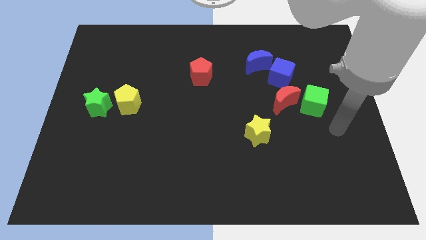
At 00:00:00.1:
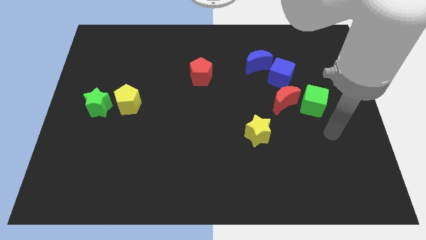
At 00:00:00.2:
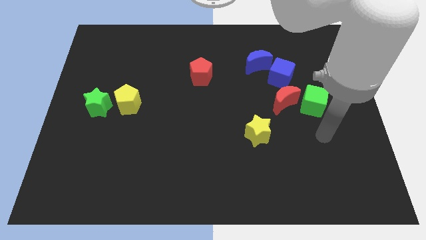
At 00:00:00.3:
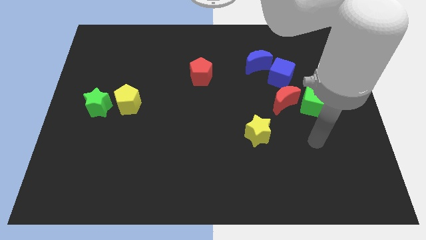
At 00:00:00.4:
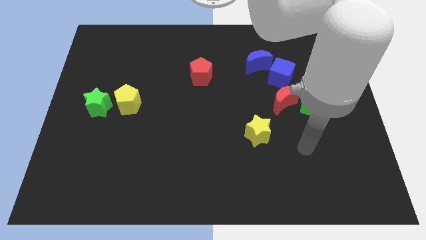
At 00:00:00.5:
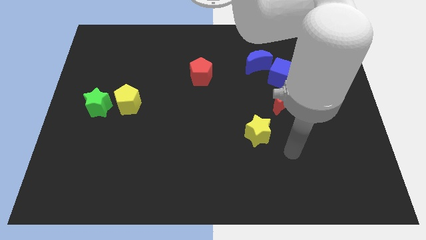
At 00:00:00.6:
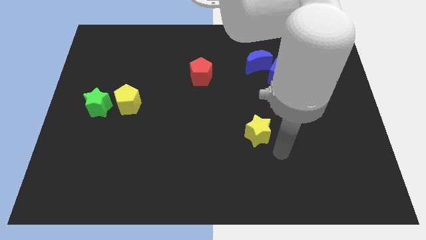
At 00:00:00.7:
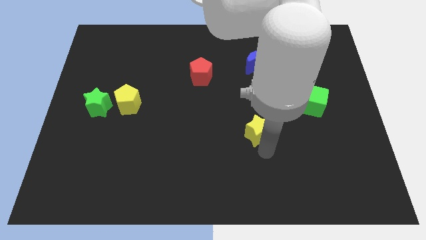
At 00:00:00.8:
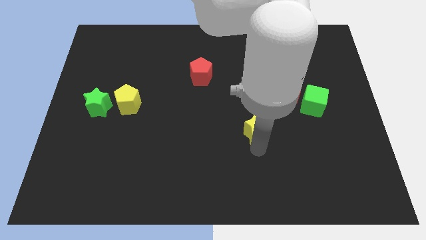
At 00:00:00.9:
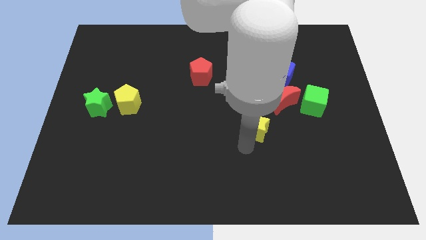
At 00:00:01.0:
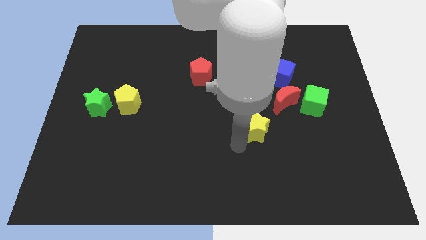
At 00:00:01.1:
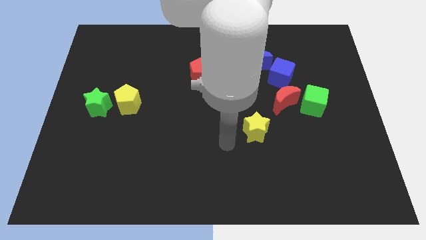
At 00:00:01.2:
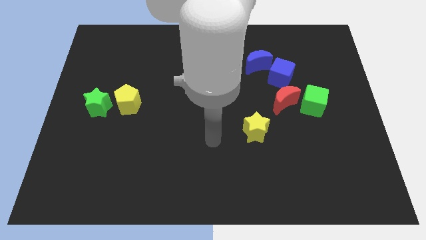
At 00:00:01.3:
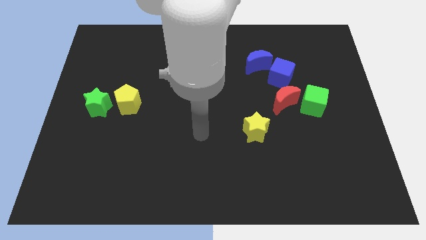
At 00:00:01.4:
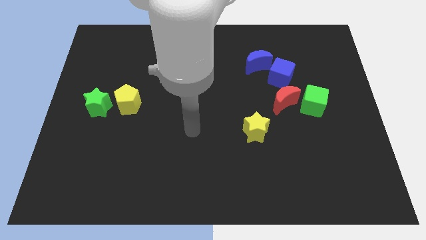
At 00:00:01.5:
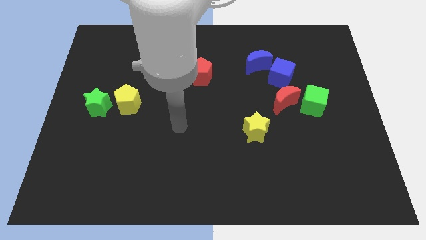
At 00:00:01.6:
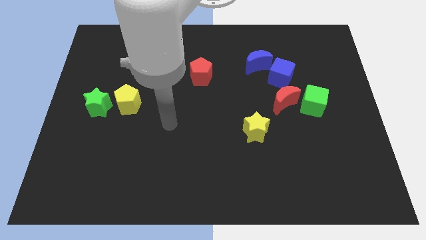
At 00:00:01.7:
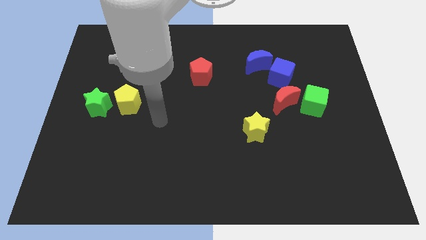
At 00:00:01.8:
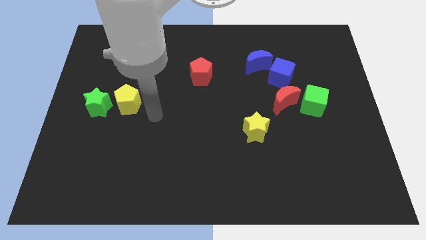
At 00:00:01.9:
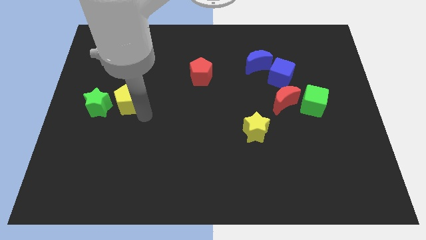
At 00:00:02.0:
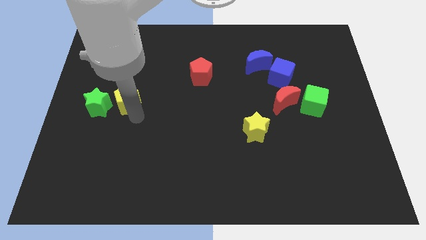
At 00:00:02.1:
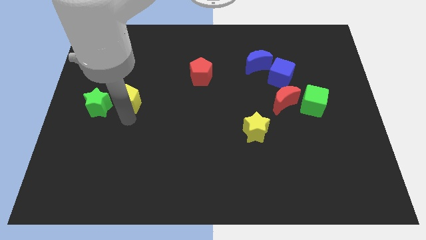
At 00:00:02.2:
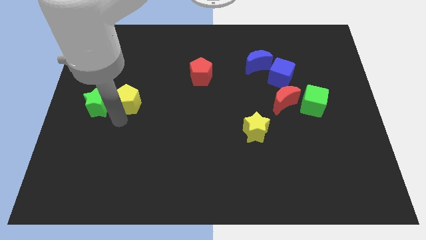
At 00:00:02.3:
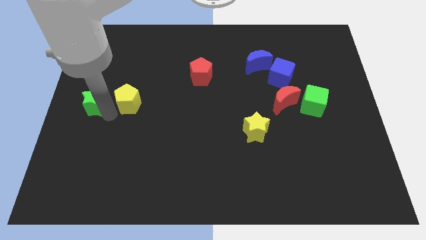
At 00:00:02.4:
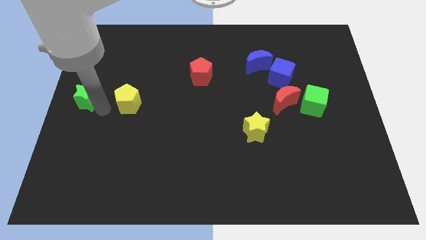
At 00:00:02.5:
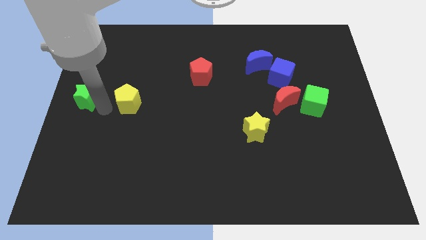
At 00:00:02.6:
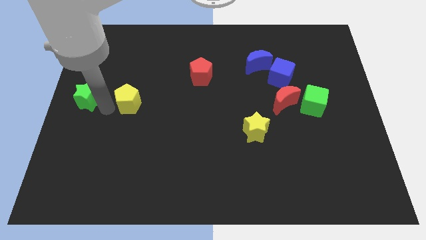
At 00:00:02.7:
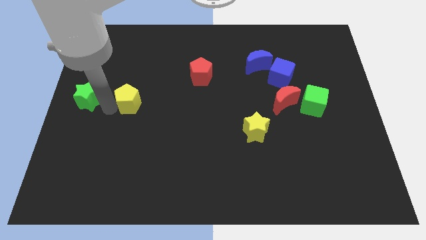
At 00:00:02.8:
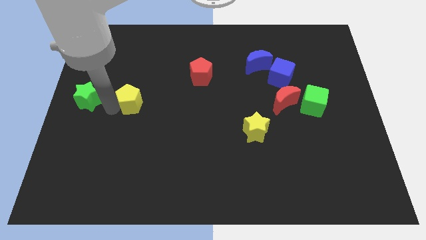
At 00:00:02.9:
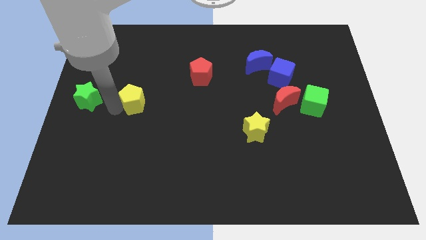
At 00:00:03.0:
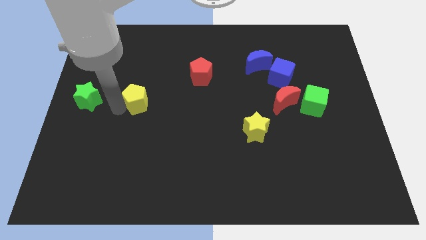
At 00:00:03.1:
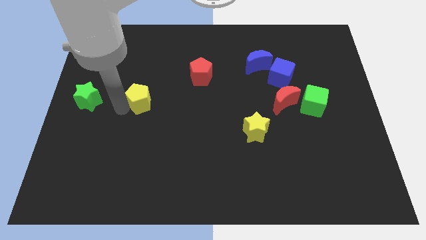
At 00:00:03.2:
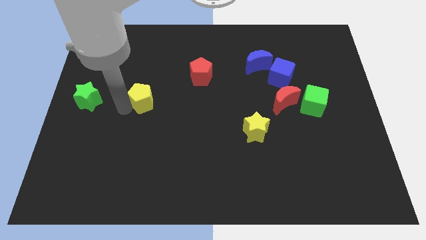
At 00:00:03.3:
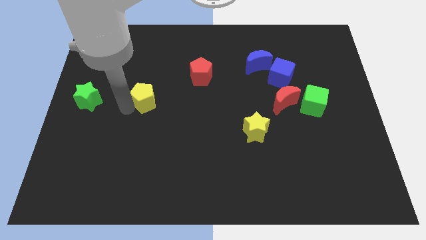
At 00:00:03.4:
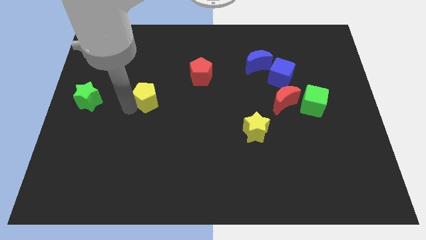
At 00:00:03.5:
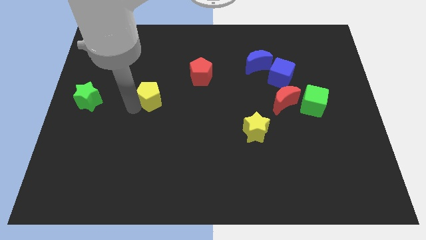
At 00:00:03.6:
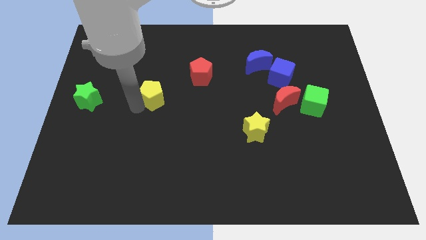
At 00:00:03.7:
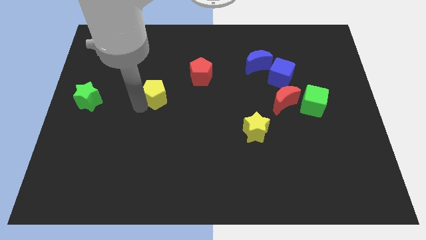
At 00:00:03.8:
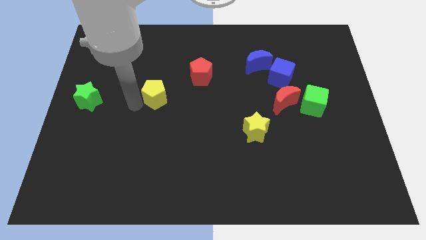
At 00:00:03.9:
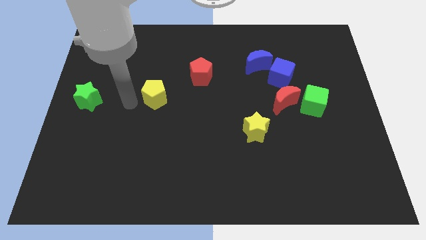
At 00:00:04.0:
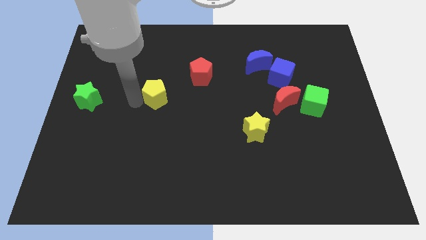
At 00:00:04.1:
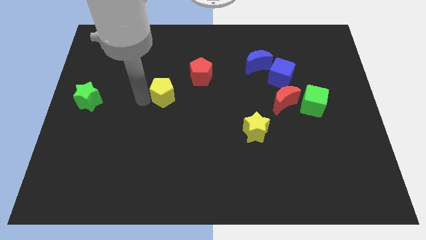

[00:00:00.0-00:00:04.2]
push the yellow pentagon diagonally down and to the left of the red pentagon

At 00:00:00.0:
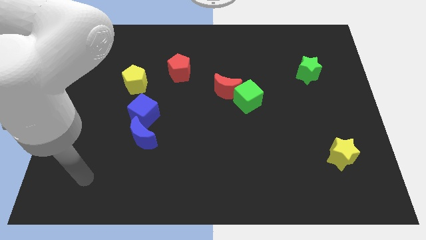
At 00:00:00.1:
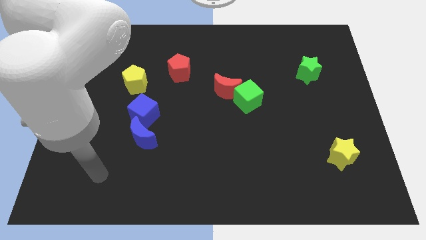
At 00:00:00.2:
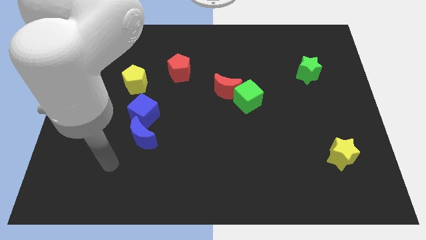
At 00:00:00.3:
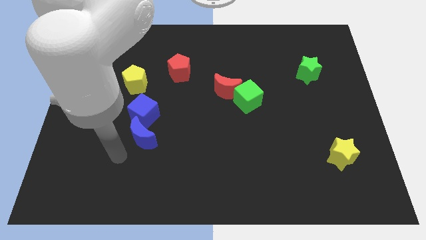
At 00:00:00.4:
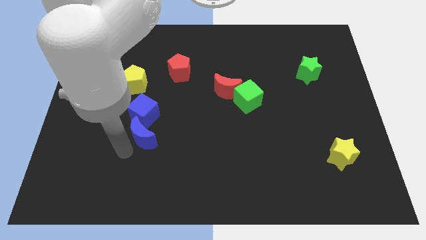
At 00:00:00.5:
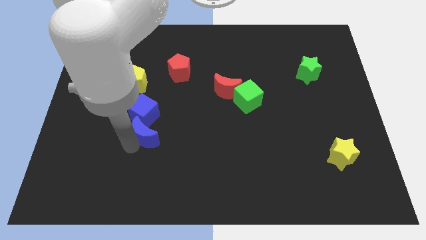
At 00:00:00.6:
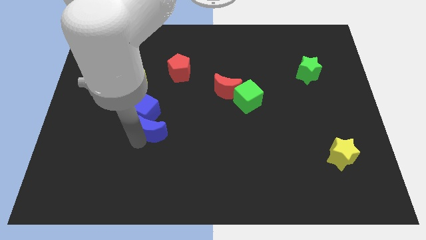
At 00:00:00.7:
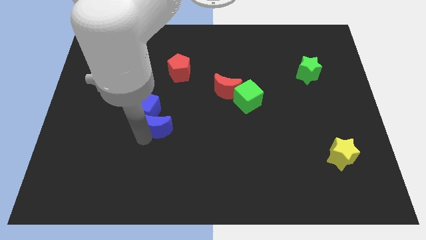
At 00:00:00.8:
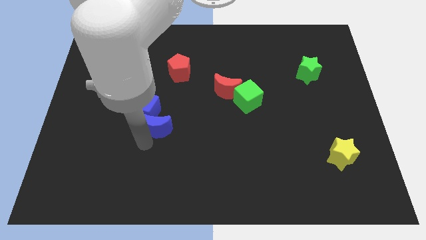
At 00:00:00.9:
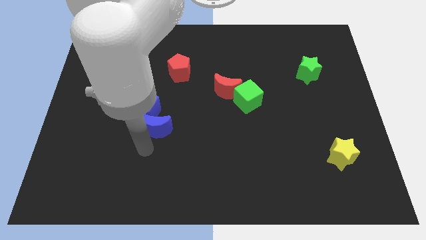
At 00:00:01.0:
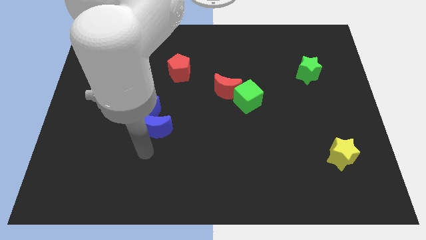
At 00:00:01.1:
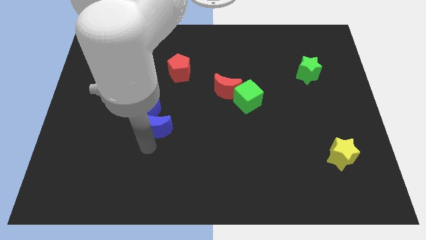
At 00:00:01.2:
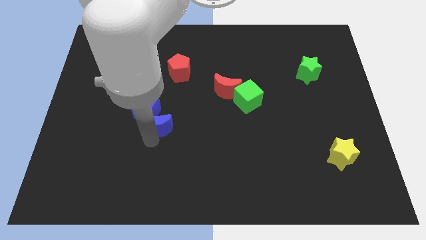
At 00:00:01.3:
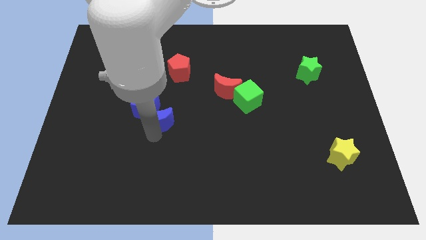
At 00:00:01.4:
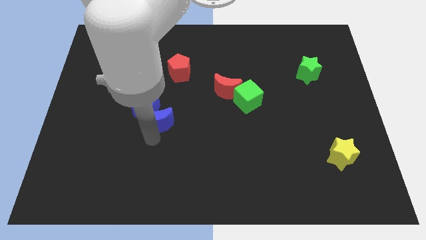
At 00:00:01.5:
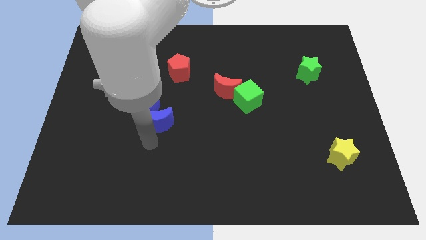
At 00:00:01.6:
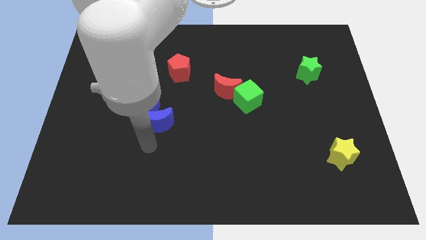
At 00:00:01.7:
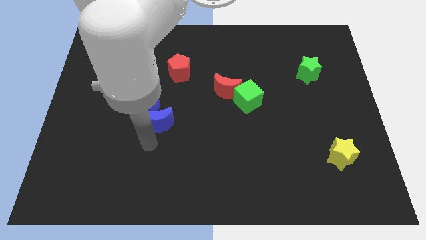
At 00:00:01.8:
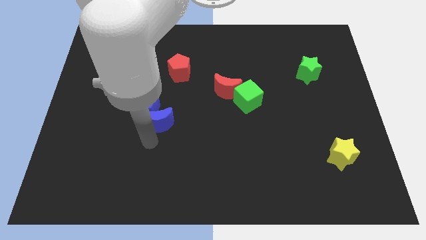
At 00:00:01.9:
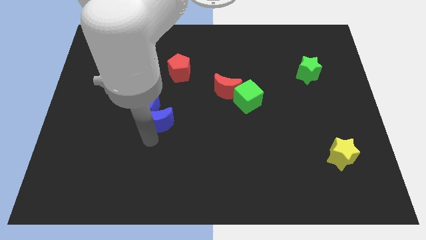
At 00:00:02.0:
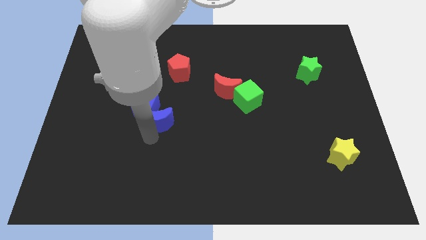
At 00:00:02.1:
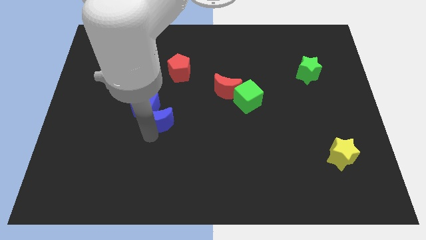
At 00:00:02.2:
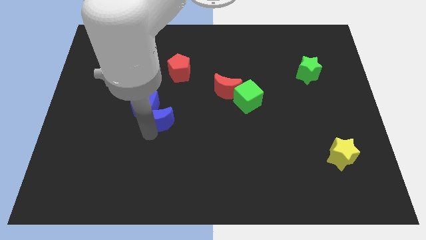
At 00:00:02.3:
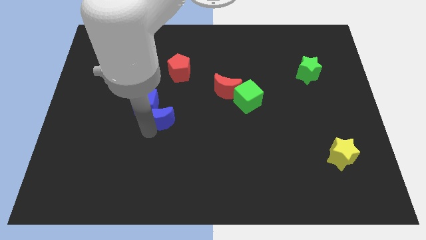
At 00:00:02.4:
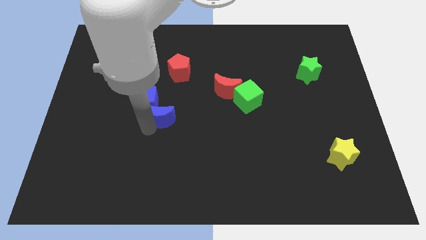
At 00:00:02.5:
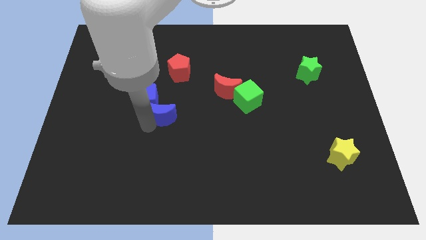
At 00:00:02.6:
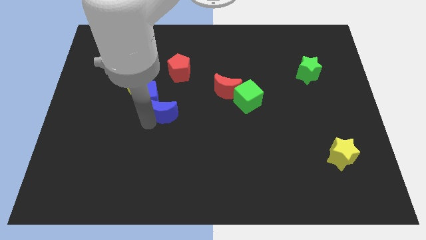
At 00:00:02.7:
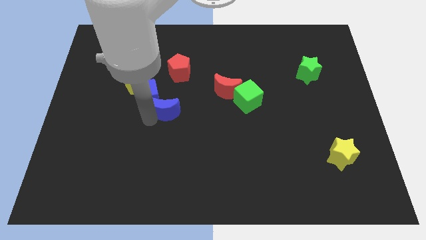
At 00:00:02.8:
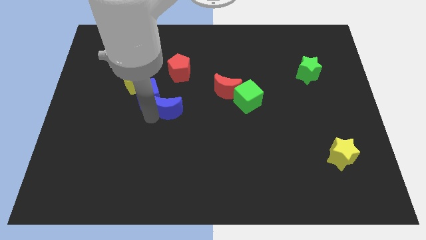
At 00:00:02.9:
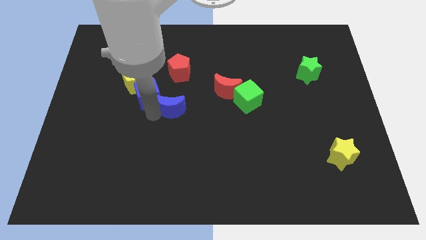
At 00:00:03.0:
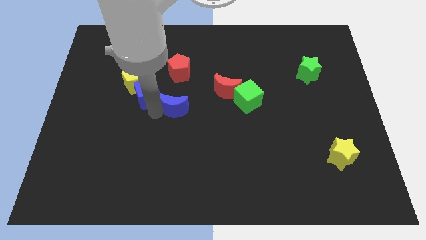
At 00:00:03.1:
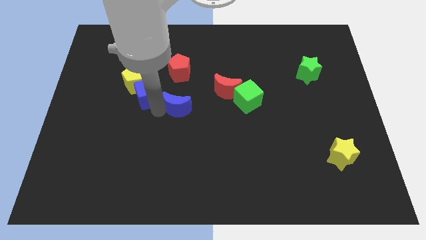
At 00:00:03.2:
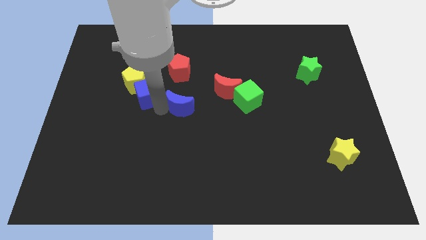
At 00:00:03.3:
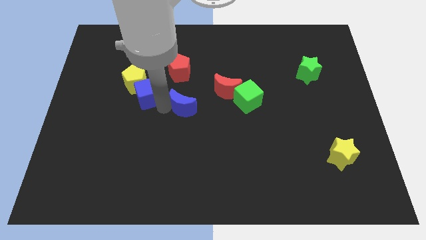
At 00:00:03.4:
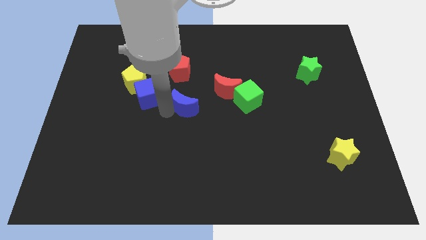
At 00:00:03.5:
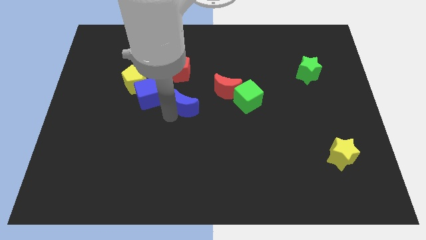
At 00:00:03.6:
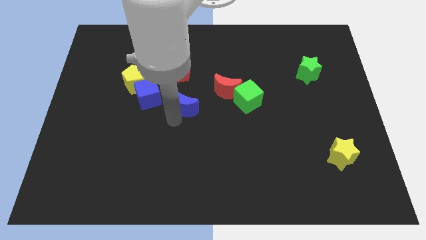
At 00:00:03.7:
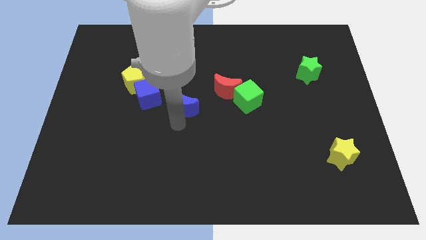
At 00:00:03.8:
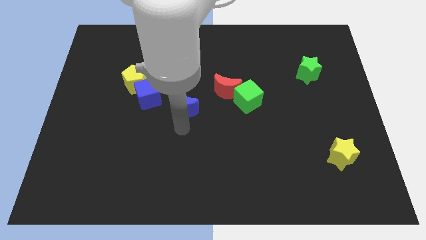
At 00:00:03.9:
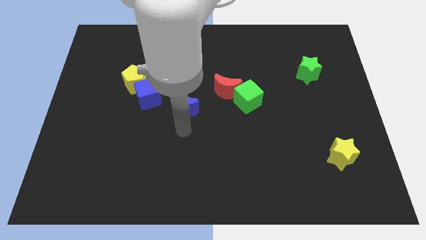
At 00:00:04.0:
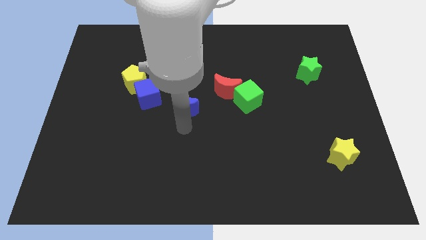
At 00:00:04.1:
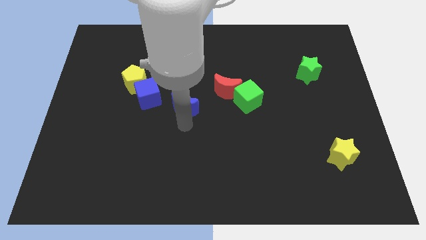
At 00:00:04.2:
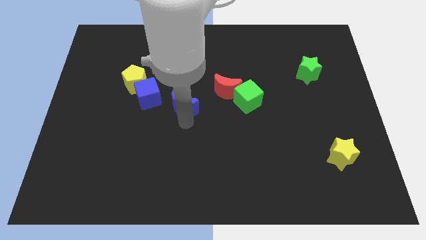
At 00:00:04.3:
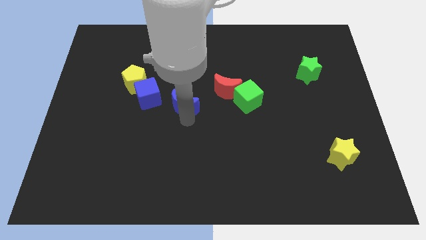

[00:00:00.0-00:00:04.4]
put the blue moon just left of the red moon
